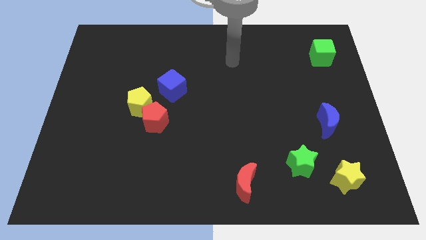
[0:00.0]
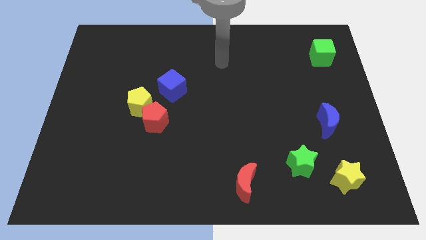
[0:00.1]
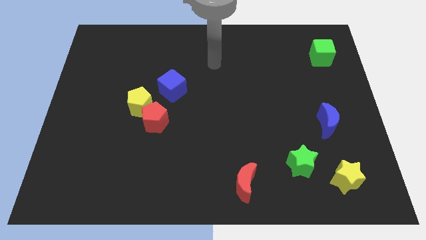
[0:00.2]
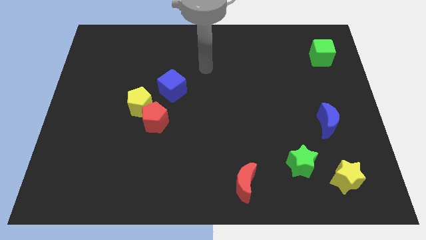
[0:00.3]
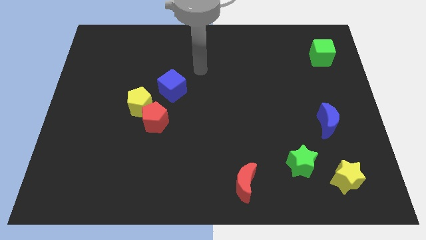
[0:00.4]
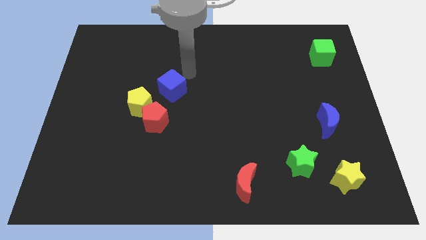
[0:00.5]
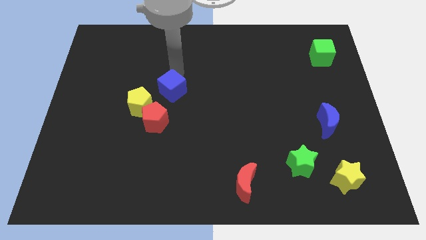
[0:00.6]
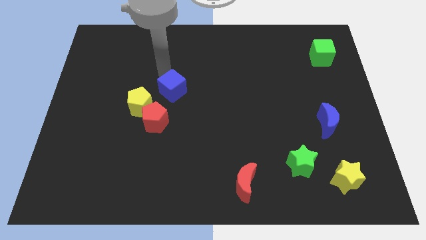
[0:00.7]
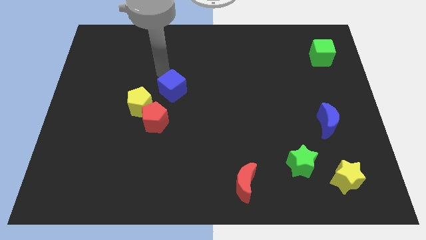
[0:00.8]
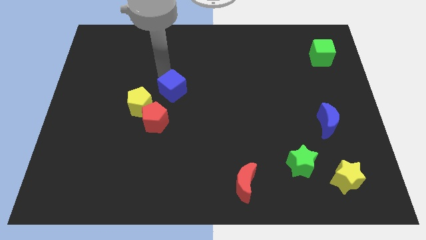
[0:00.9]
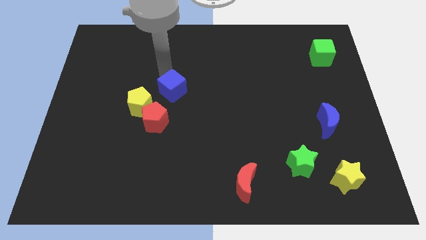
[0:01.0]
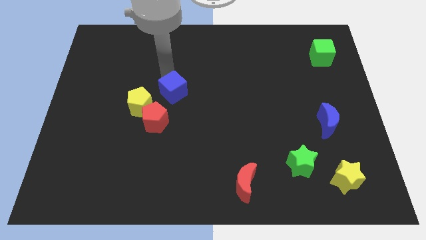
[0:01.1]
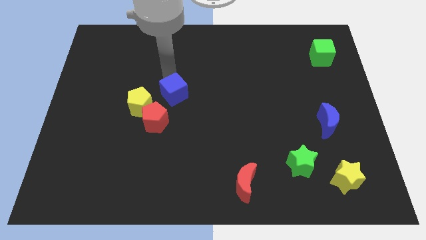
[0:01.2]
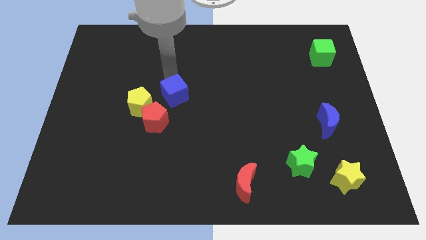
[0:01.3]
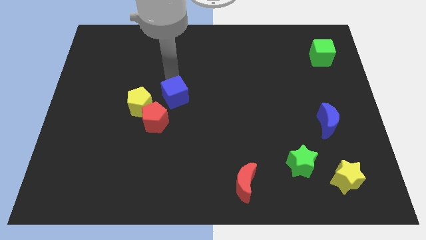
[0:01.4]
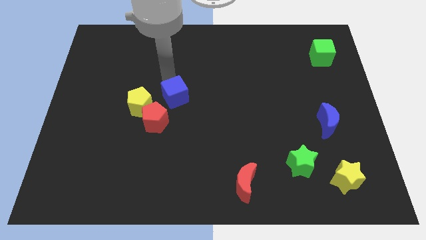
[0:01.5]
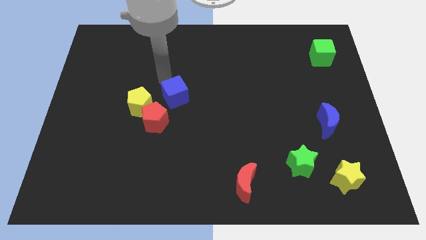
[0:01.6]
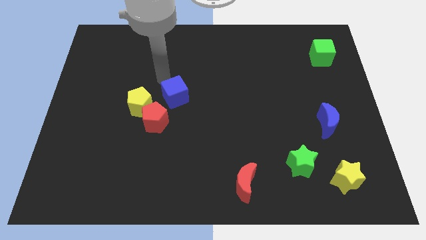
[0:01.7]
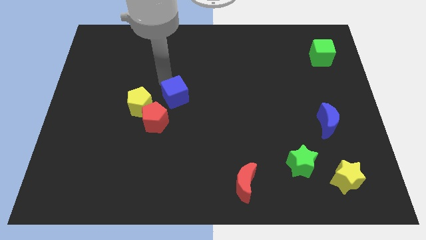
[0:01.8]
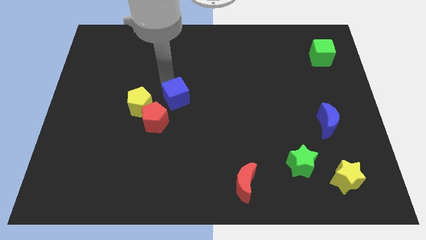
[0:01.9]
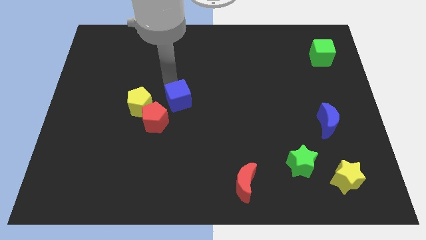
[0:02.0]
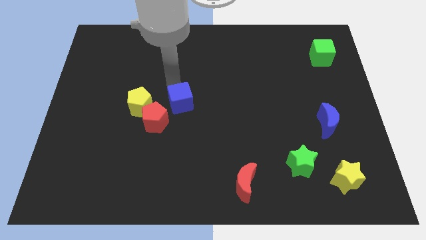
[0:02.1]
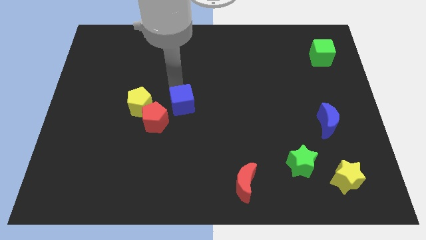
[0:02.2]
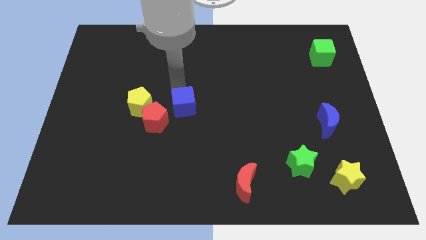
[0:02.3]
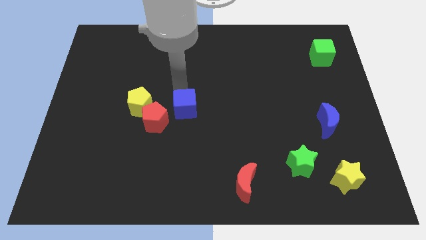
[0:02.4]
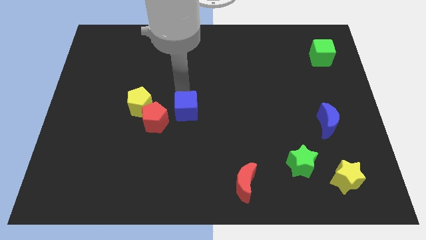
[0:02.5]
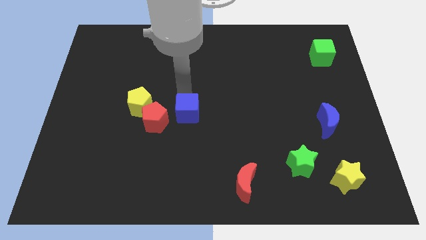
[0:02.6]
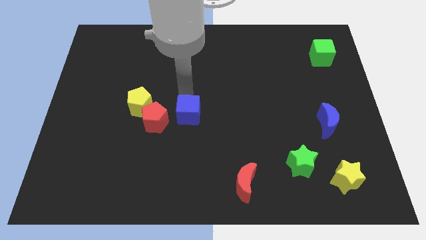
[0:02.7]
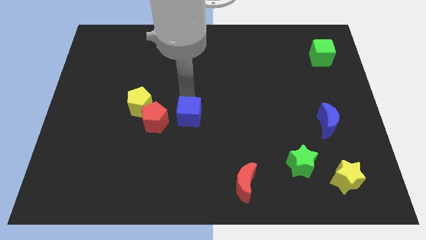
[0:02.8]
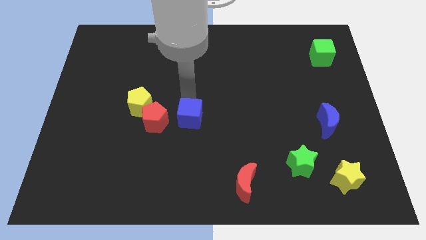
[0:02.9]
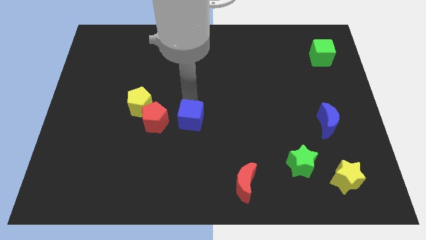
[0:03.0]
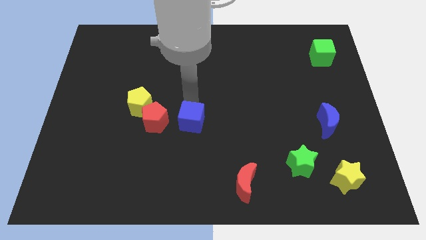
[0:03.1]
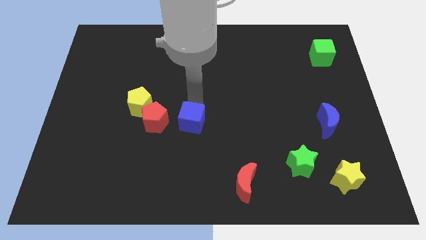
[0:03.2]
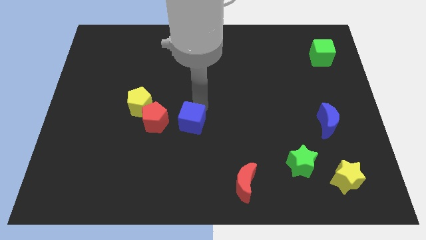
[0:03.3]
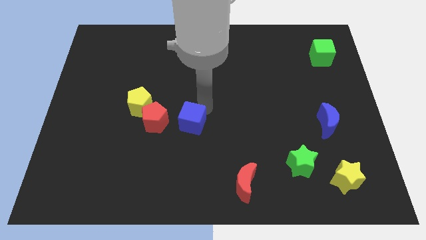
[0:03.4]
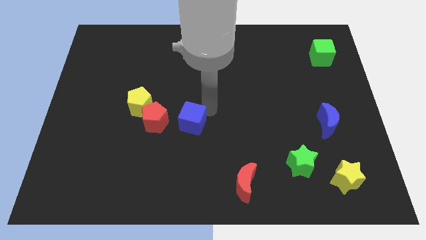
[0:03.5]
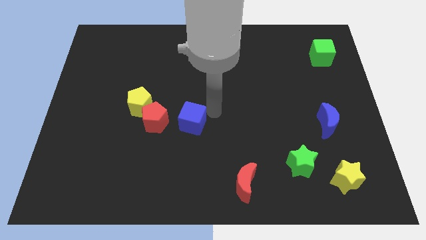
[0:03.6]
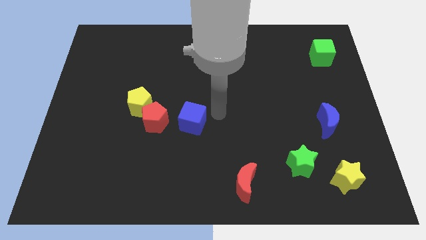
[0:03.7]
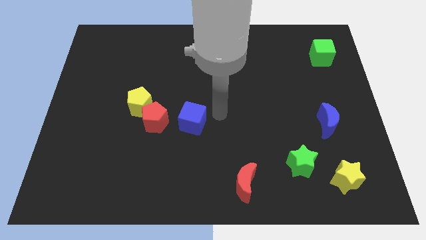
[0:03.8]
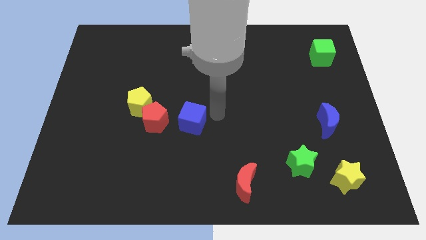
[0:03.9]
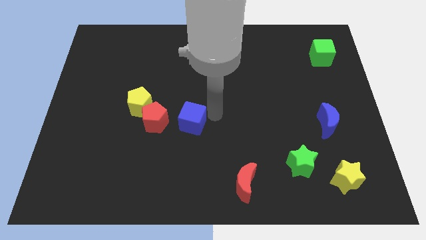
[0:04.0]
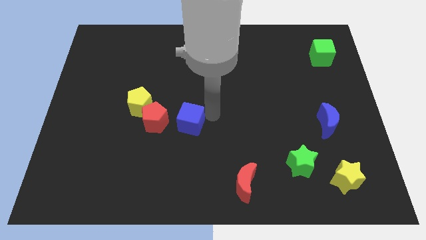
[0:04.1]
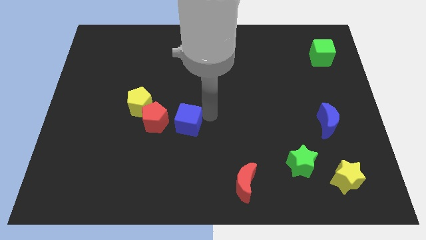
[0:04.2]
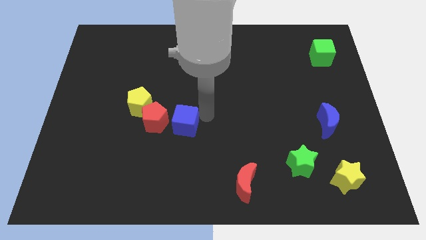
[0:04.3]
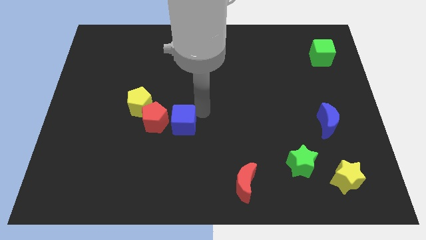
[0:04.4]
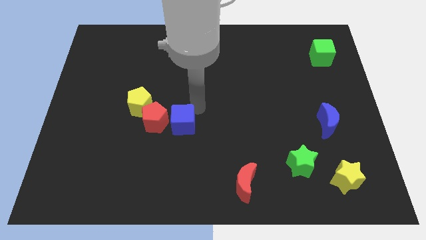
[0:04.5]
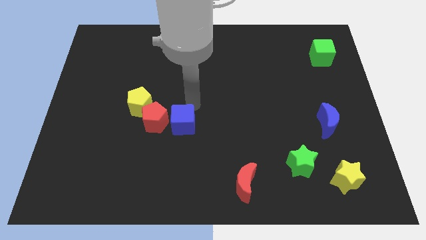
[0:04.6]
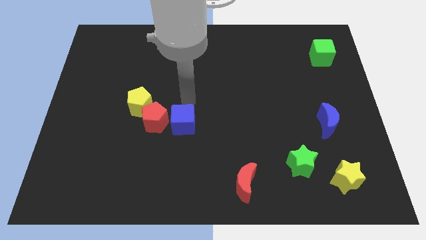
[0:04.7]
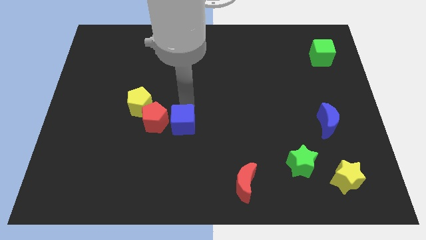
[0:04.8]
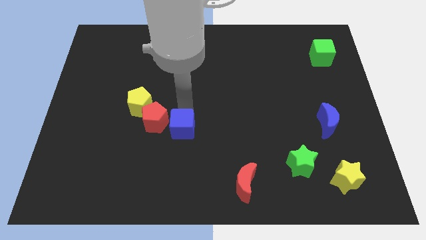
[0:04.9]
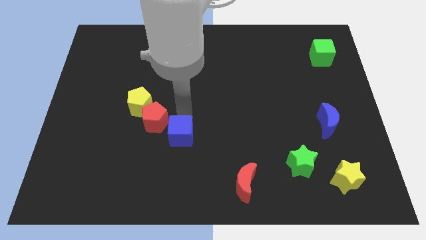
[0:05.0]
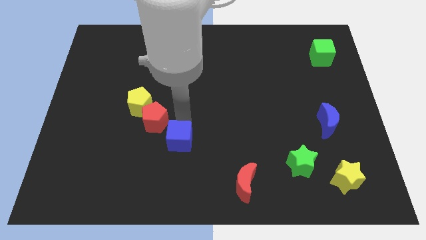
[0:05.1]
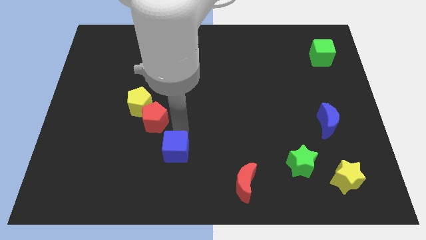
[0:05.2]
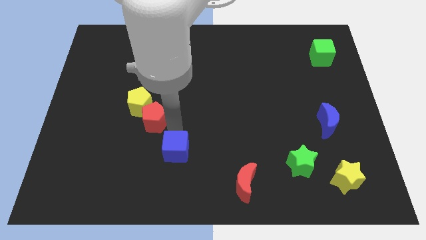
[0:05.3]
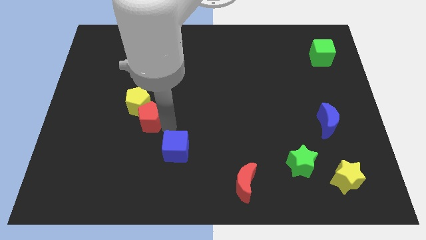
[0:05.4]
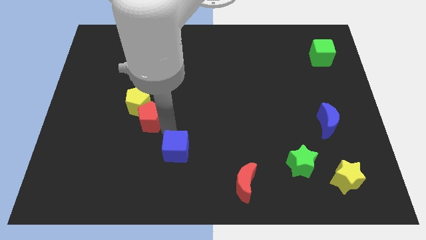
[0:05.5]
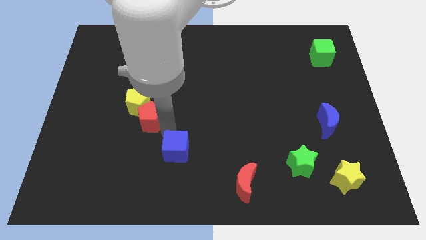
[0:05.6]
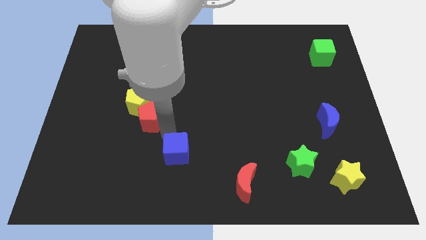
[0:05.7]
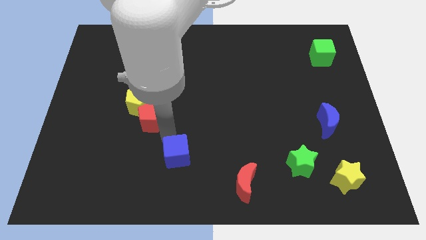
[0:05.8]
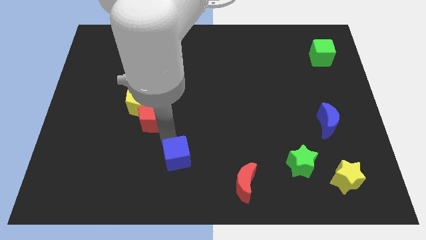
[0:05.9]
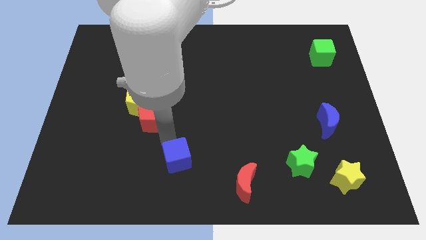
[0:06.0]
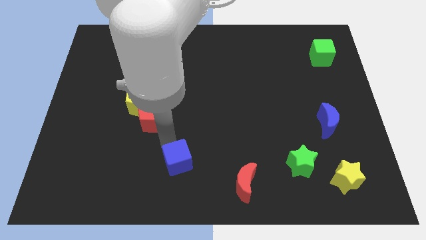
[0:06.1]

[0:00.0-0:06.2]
put the blue cube to the bottom
